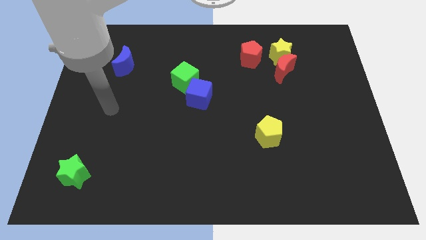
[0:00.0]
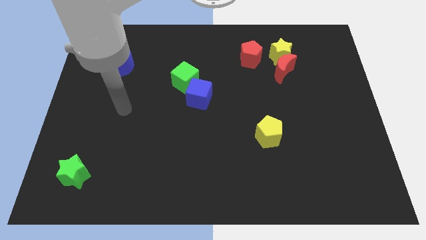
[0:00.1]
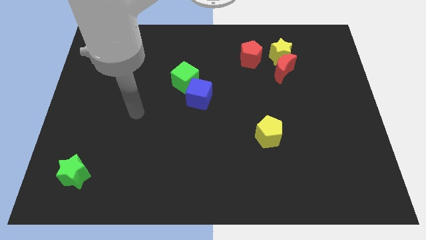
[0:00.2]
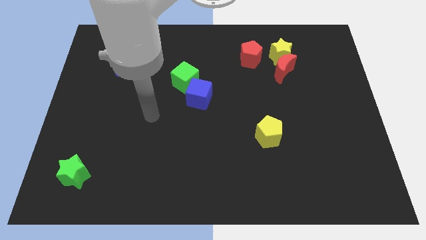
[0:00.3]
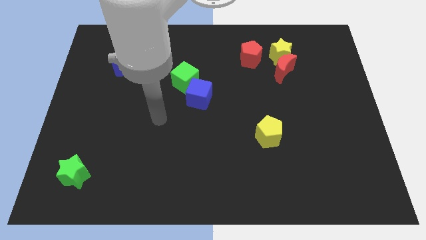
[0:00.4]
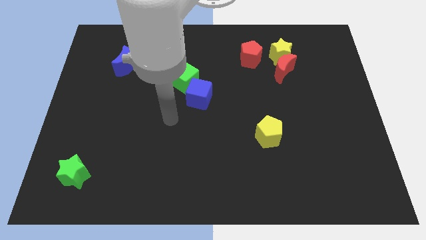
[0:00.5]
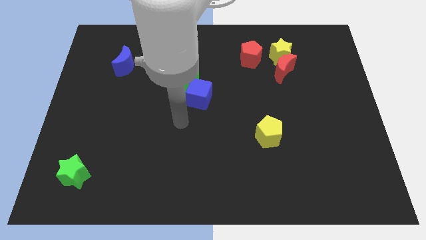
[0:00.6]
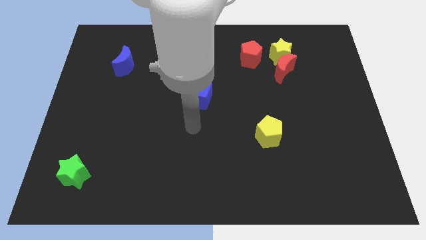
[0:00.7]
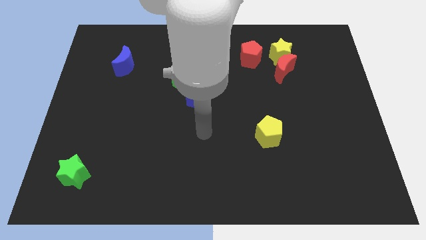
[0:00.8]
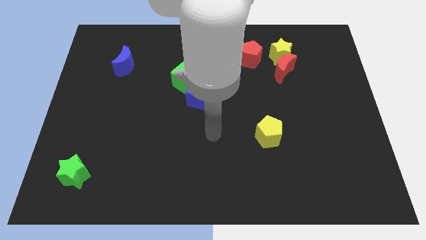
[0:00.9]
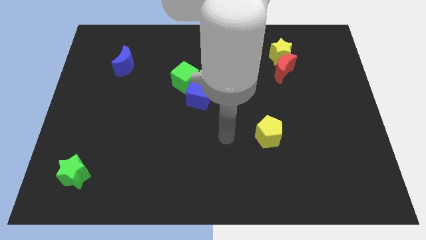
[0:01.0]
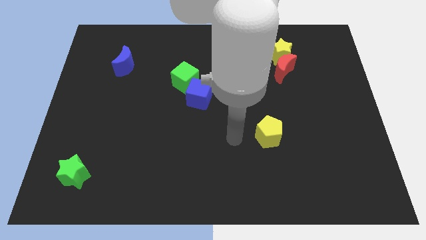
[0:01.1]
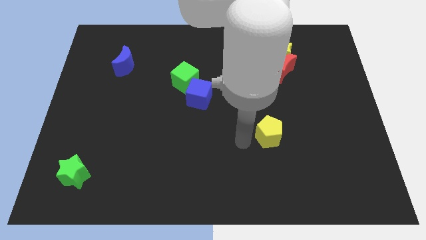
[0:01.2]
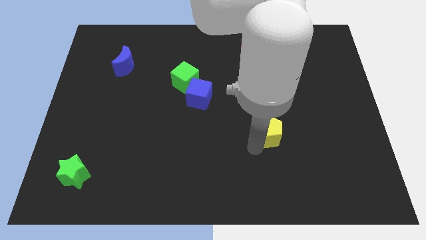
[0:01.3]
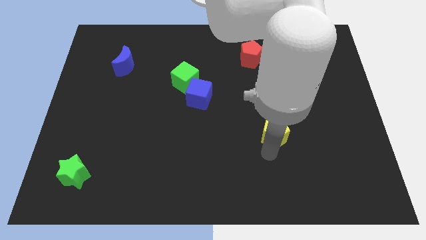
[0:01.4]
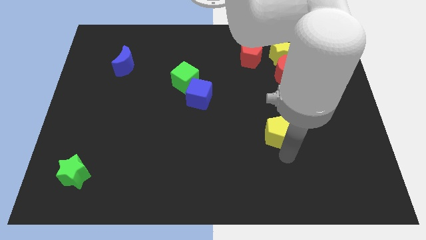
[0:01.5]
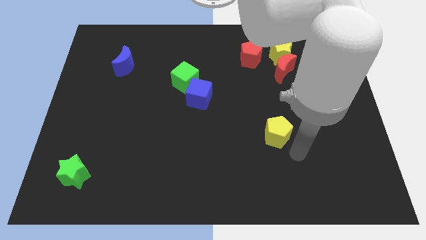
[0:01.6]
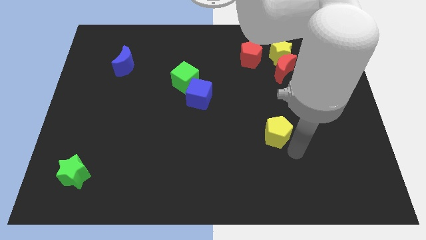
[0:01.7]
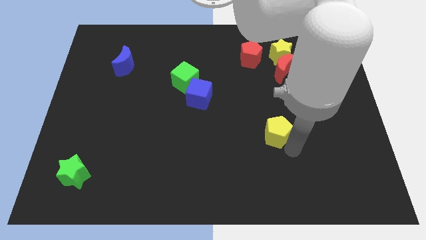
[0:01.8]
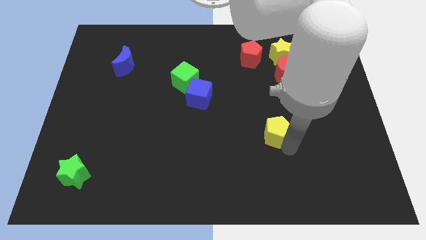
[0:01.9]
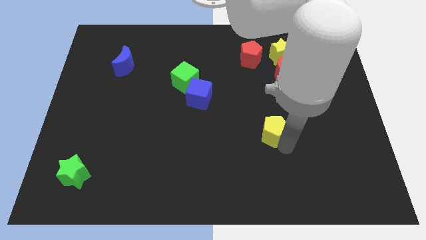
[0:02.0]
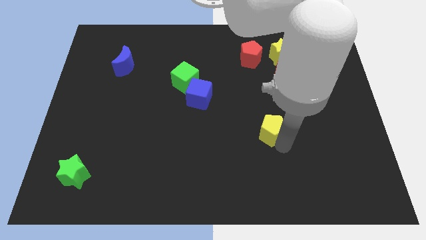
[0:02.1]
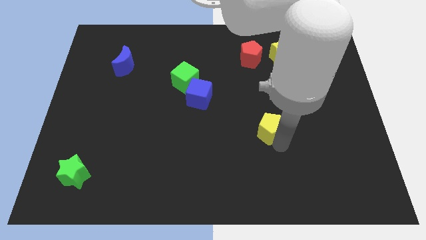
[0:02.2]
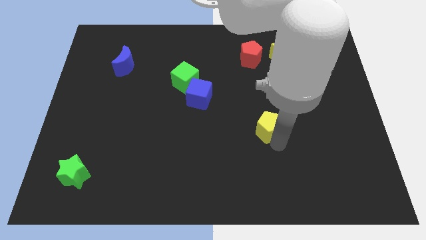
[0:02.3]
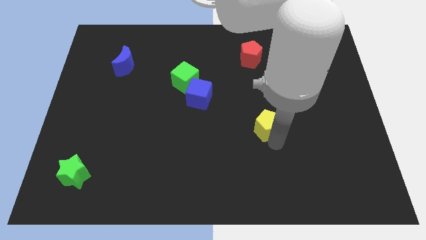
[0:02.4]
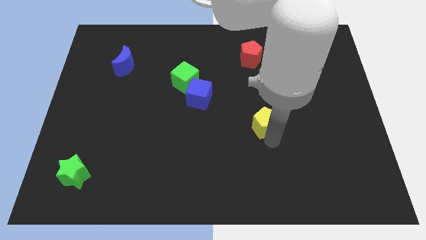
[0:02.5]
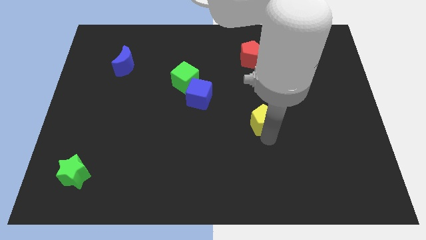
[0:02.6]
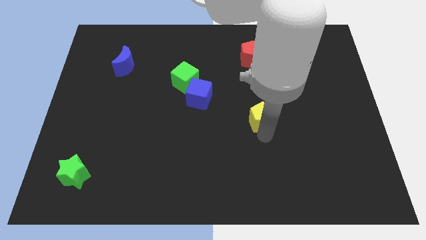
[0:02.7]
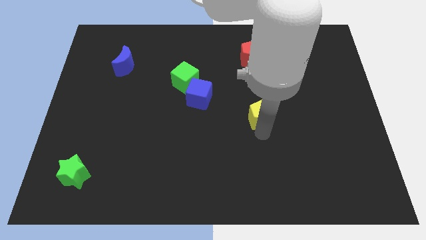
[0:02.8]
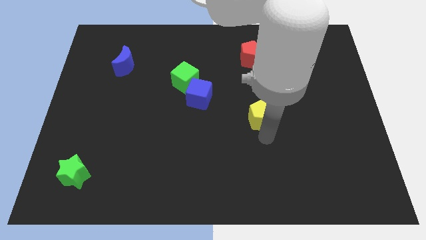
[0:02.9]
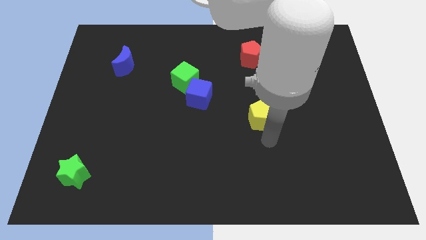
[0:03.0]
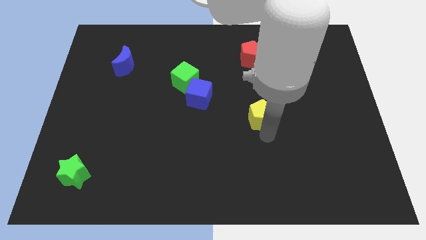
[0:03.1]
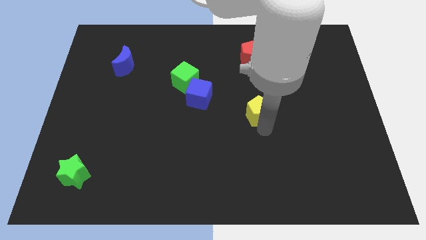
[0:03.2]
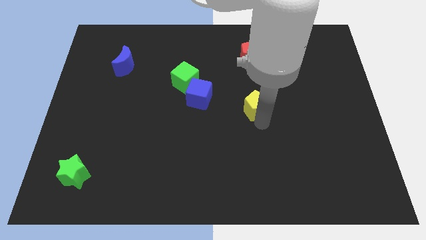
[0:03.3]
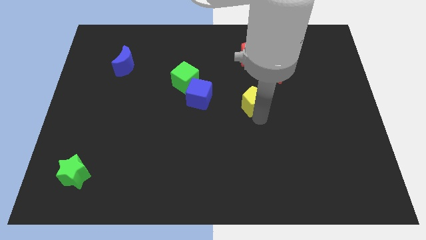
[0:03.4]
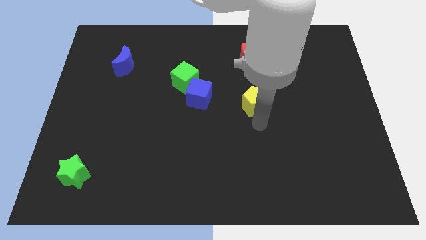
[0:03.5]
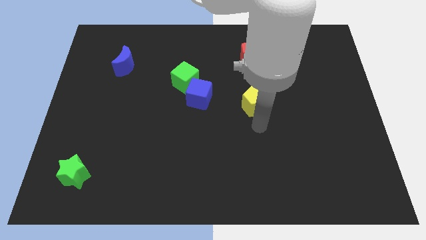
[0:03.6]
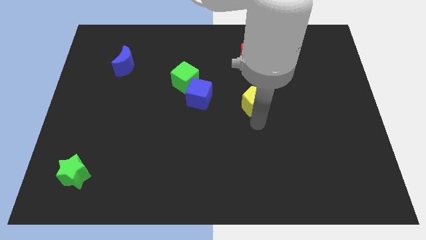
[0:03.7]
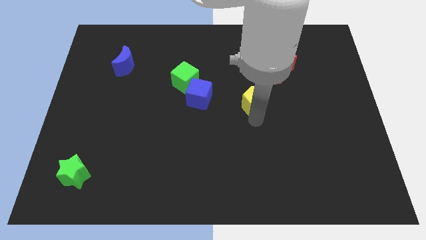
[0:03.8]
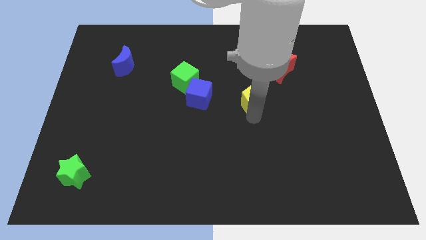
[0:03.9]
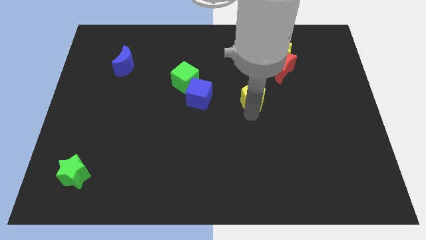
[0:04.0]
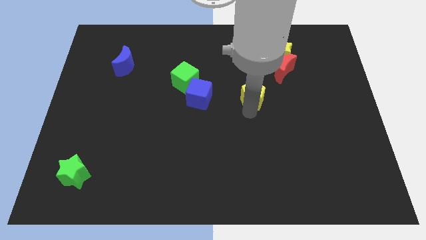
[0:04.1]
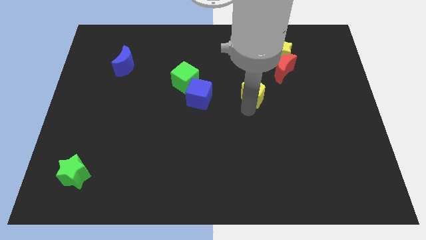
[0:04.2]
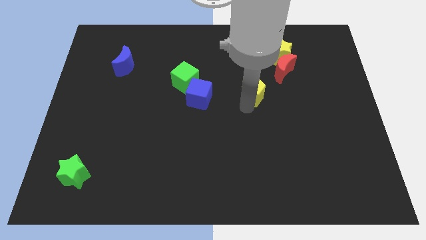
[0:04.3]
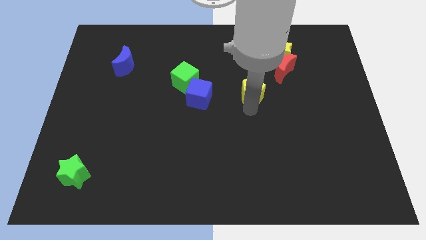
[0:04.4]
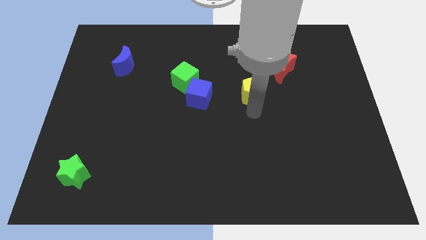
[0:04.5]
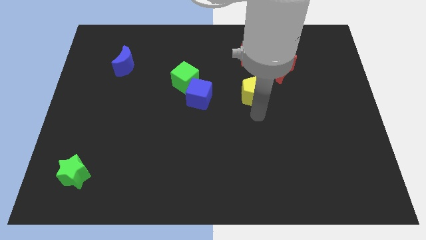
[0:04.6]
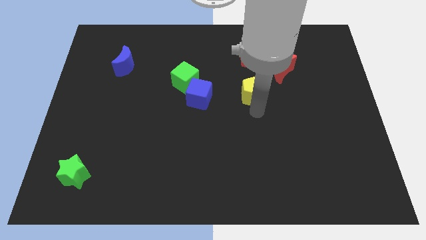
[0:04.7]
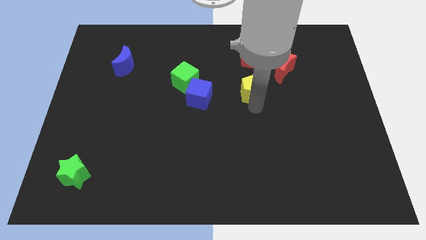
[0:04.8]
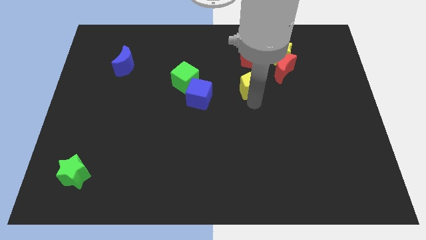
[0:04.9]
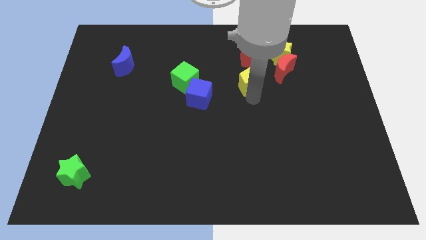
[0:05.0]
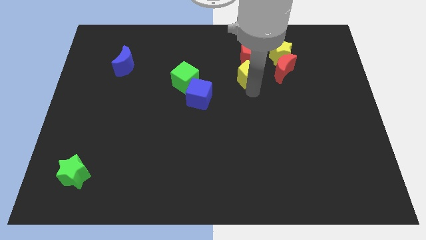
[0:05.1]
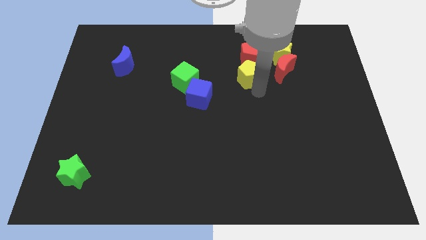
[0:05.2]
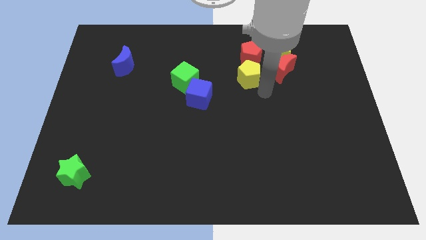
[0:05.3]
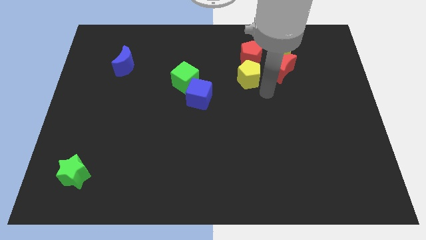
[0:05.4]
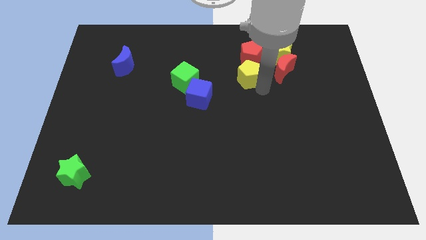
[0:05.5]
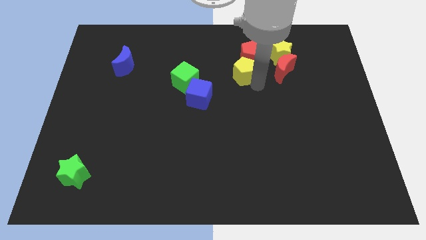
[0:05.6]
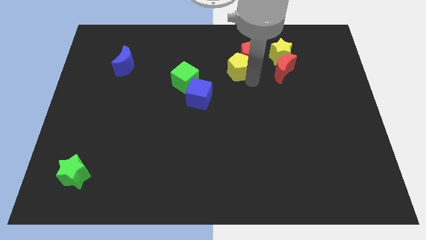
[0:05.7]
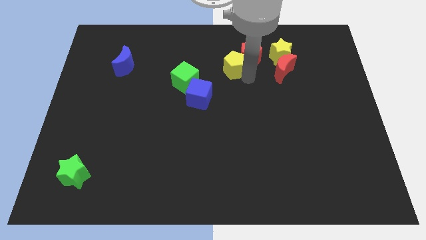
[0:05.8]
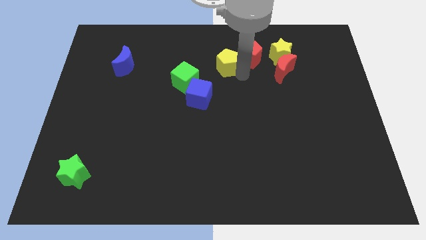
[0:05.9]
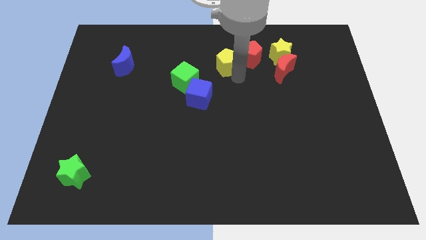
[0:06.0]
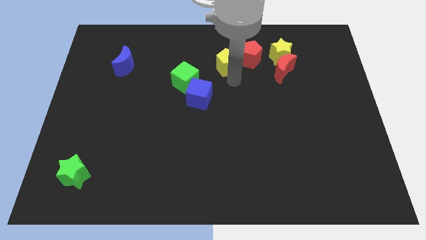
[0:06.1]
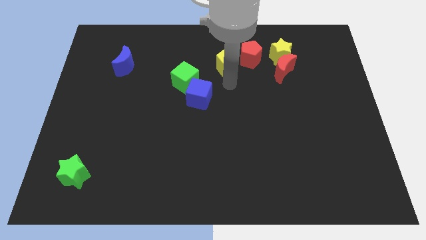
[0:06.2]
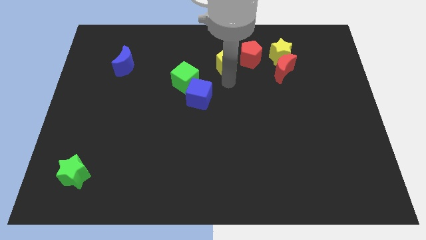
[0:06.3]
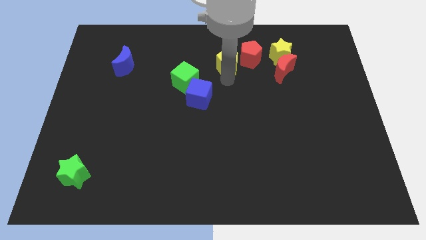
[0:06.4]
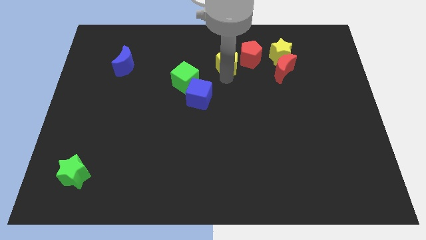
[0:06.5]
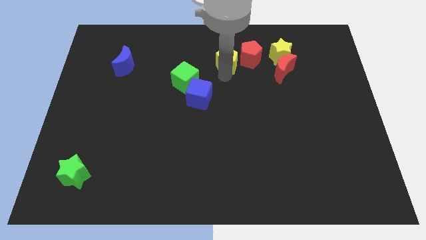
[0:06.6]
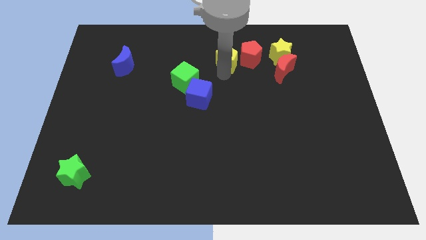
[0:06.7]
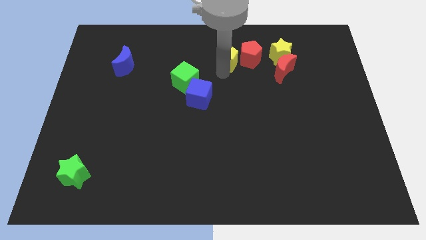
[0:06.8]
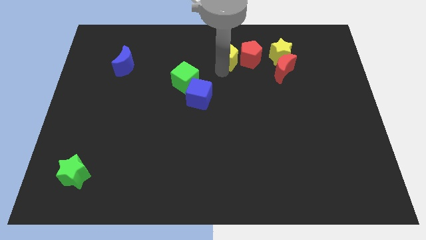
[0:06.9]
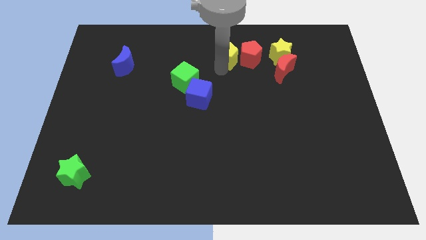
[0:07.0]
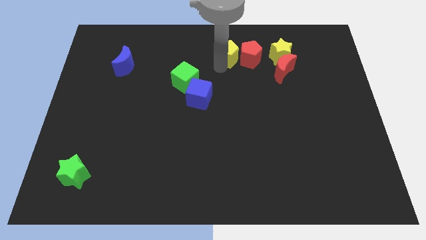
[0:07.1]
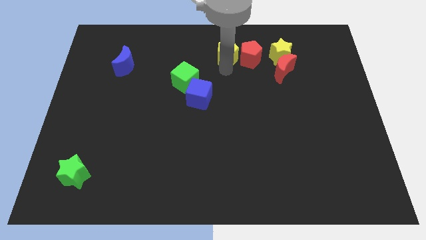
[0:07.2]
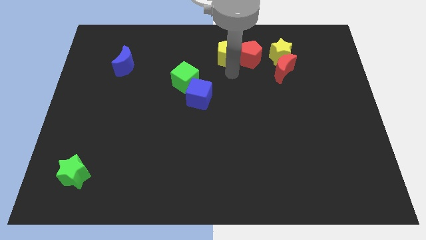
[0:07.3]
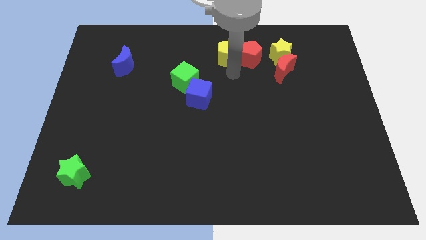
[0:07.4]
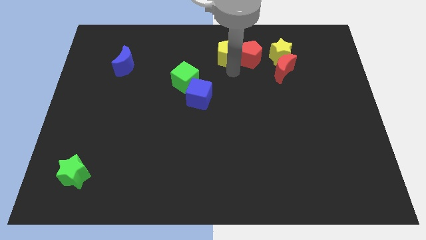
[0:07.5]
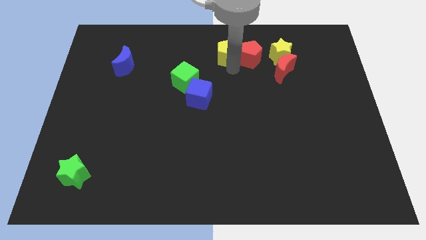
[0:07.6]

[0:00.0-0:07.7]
move the yellow pentagon to the towards your base
